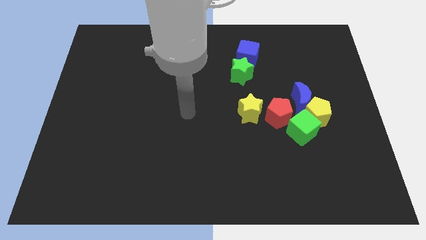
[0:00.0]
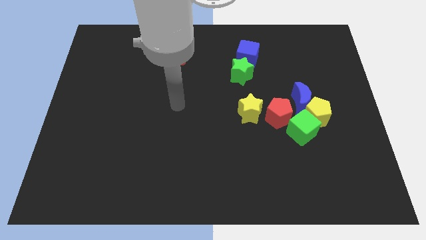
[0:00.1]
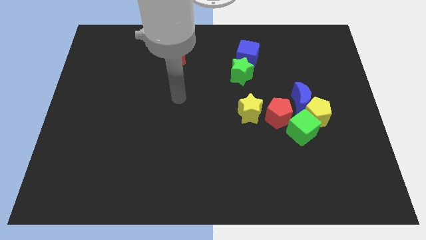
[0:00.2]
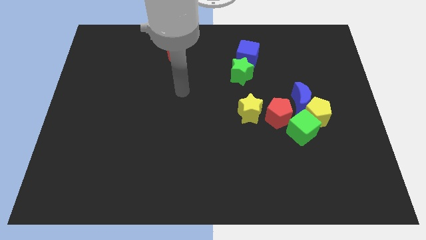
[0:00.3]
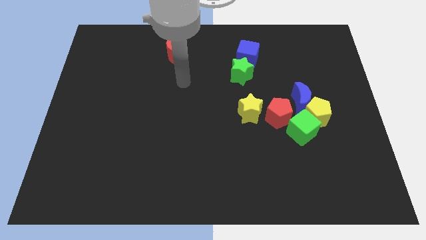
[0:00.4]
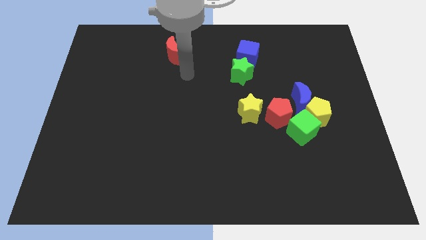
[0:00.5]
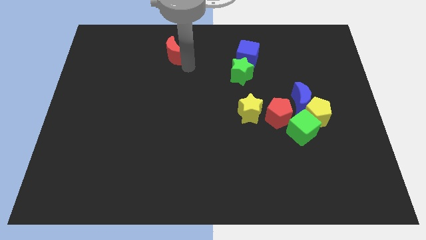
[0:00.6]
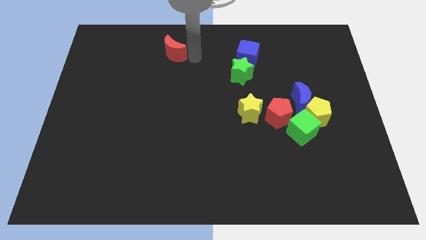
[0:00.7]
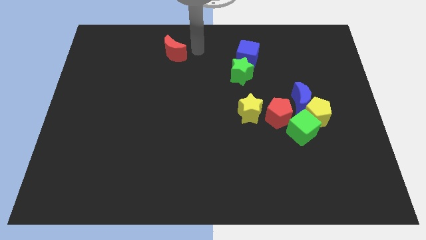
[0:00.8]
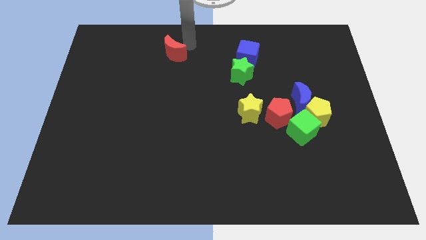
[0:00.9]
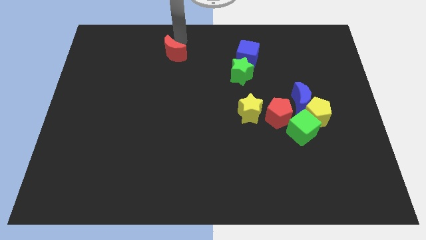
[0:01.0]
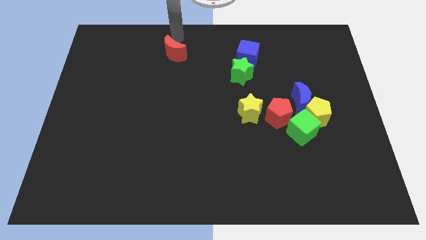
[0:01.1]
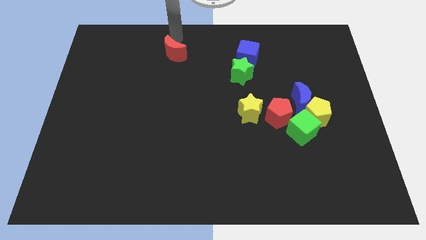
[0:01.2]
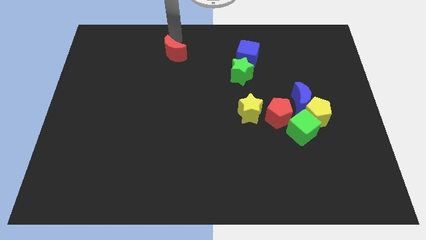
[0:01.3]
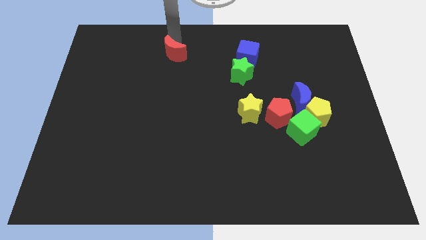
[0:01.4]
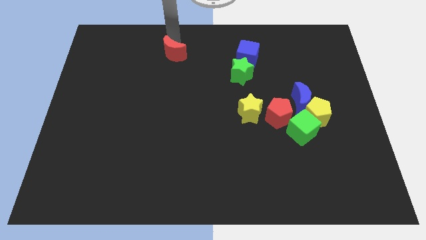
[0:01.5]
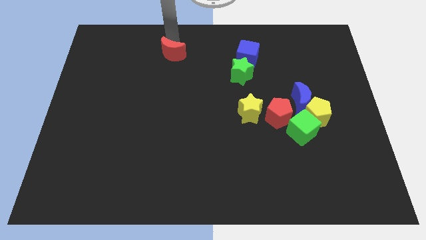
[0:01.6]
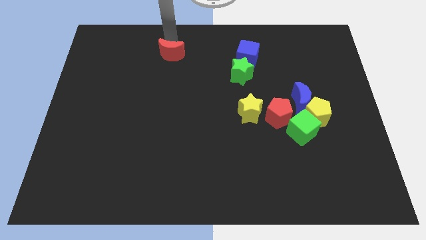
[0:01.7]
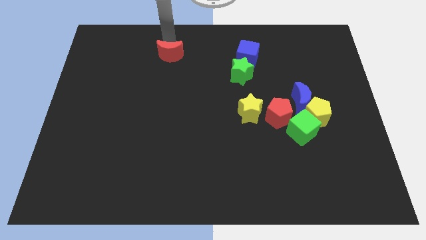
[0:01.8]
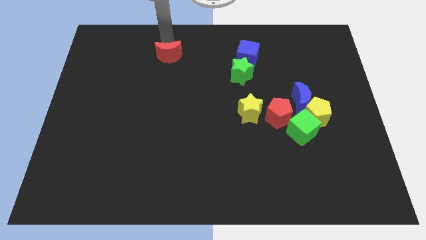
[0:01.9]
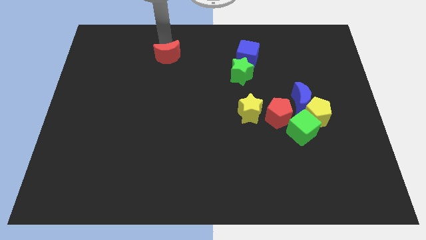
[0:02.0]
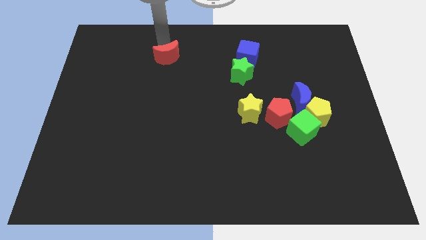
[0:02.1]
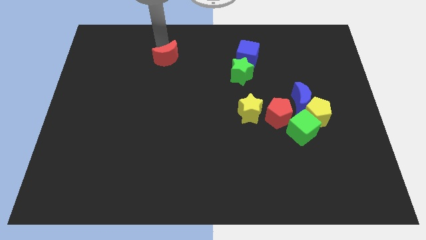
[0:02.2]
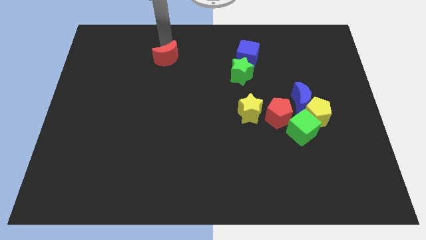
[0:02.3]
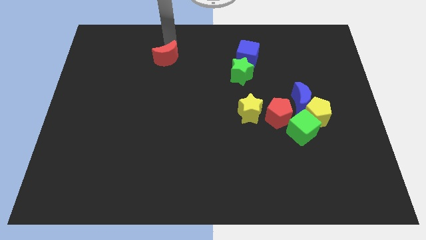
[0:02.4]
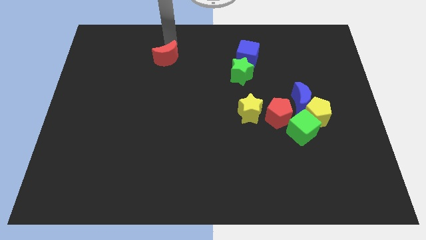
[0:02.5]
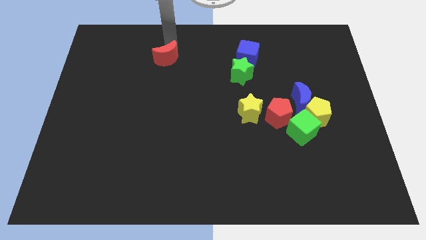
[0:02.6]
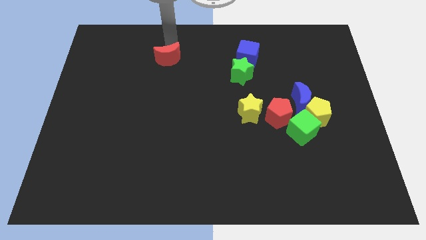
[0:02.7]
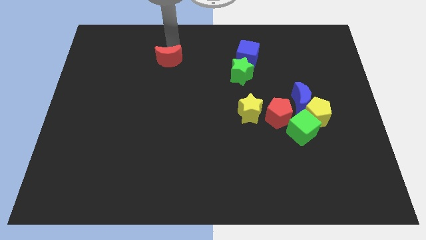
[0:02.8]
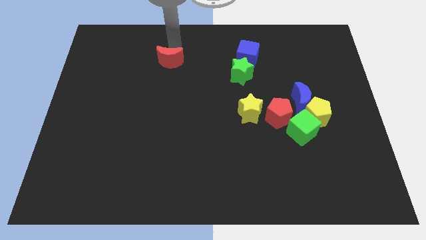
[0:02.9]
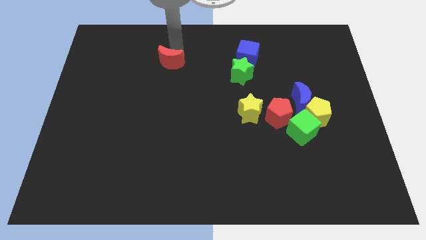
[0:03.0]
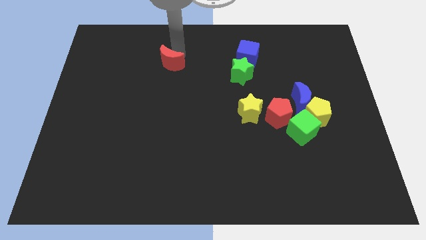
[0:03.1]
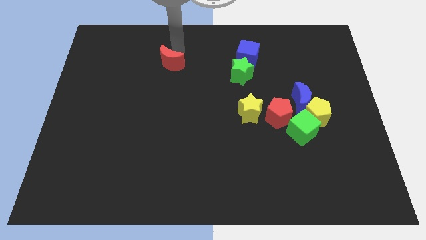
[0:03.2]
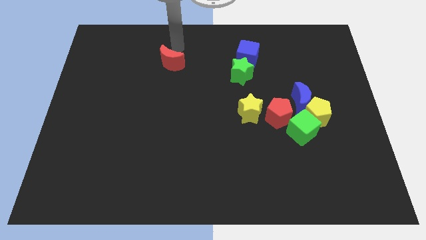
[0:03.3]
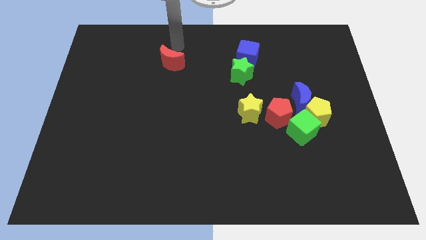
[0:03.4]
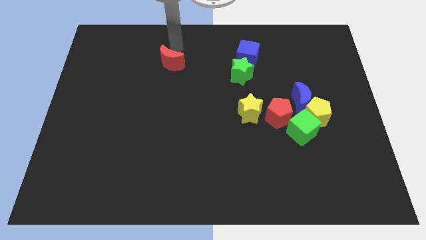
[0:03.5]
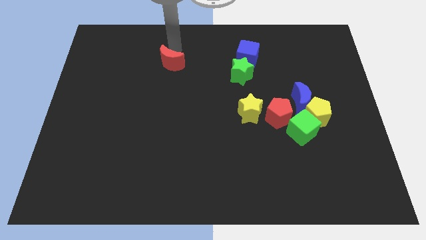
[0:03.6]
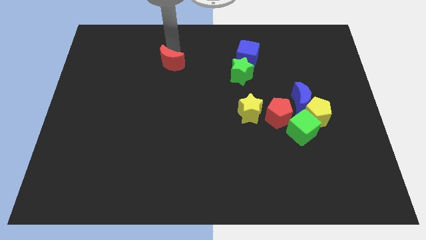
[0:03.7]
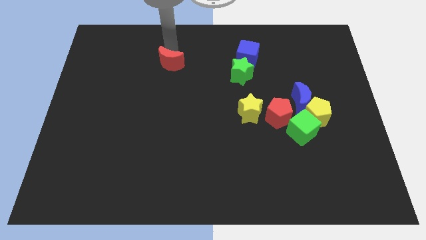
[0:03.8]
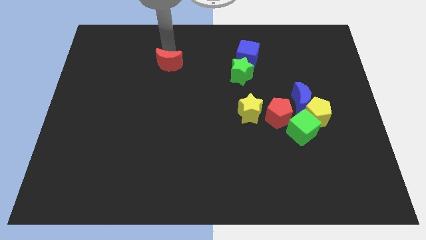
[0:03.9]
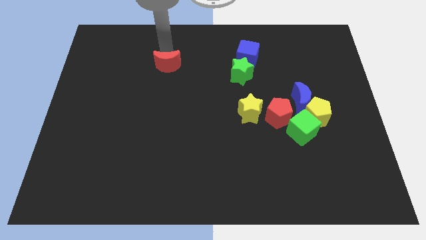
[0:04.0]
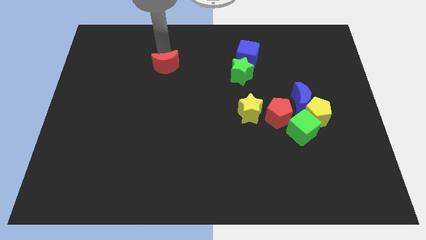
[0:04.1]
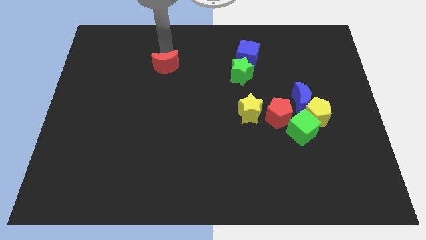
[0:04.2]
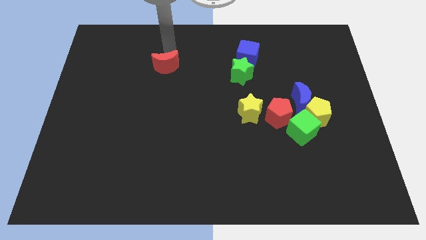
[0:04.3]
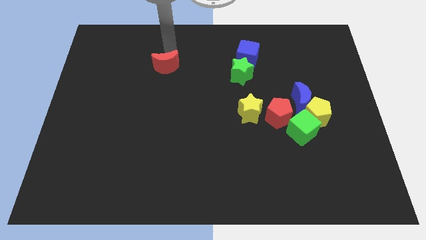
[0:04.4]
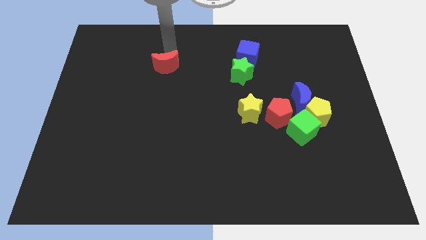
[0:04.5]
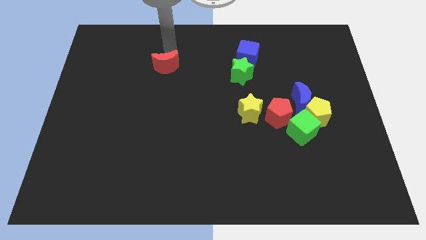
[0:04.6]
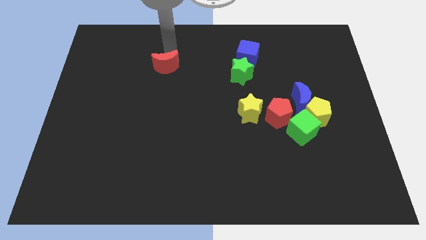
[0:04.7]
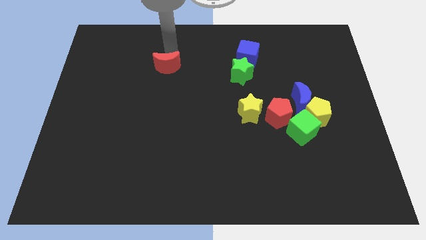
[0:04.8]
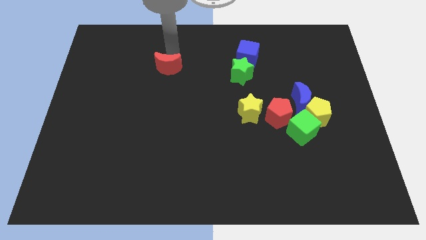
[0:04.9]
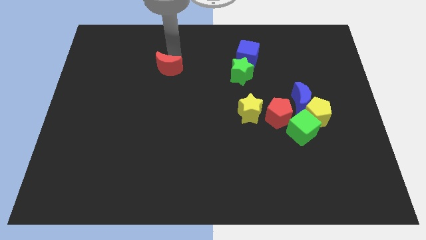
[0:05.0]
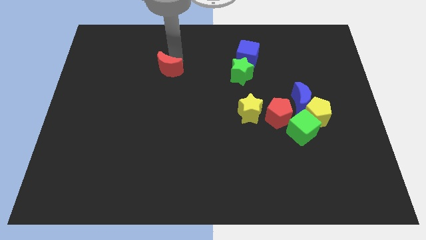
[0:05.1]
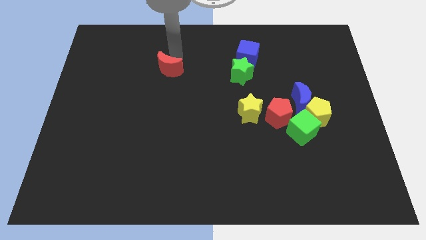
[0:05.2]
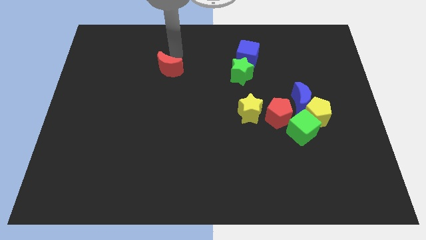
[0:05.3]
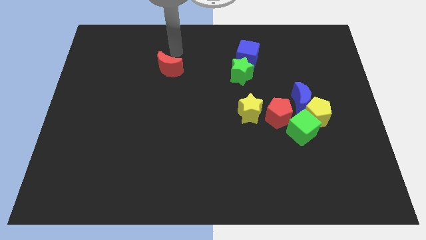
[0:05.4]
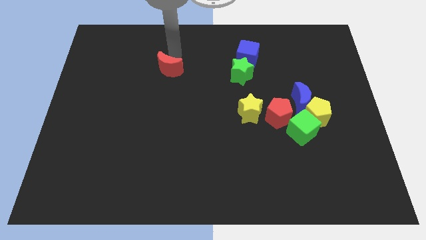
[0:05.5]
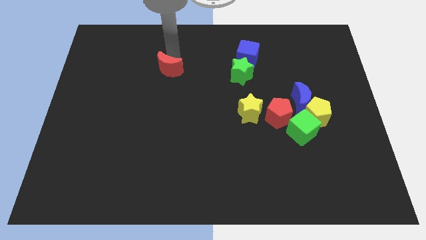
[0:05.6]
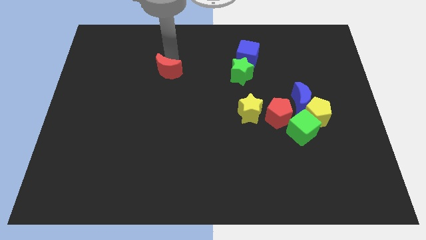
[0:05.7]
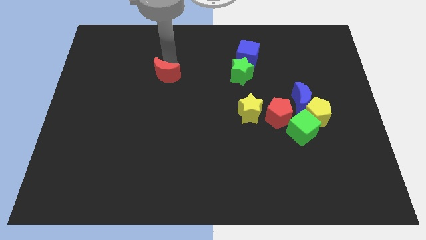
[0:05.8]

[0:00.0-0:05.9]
slide the red moon downwards slightly

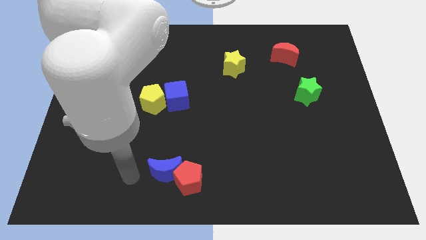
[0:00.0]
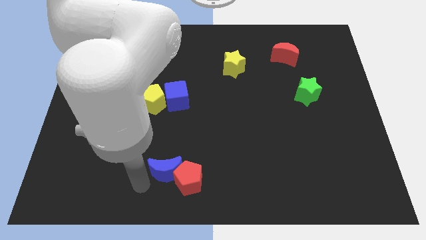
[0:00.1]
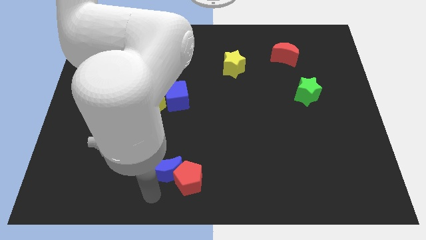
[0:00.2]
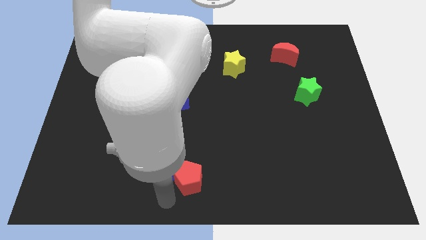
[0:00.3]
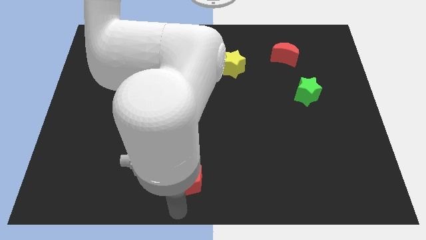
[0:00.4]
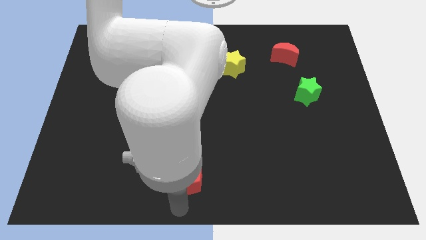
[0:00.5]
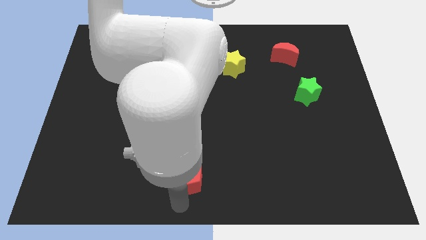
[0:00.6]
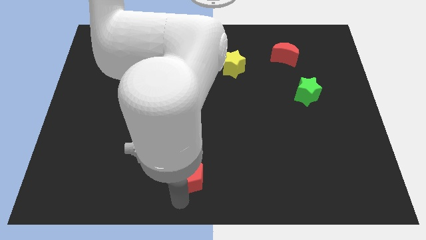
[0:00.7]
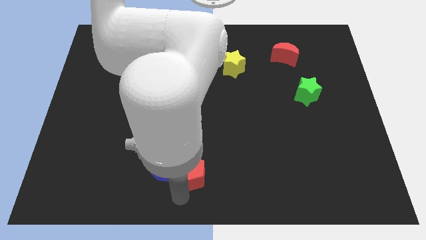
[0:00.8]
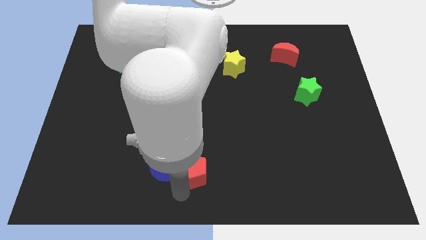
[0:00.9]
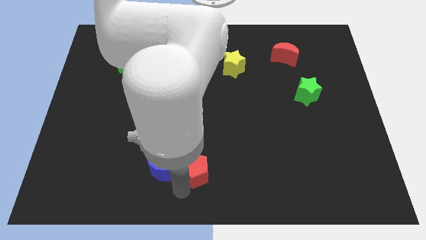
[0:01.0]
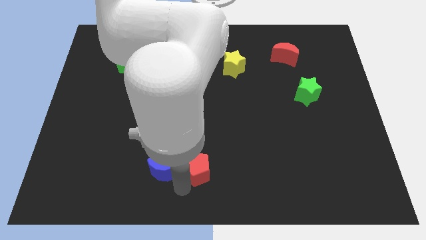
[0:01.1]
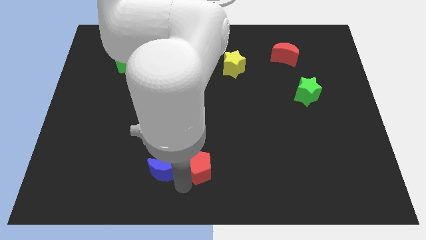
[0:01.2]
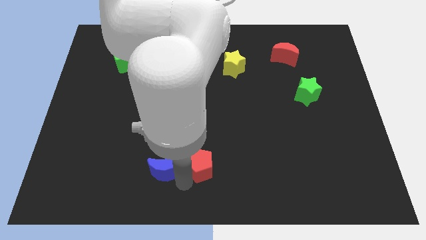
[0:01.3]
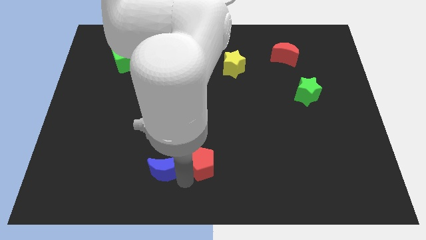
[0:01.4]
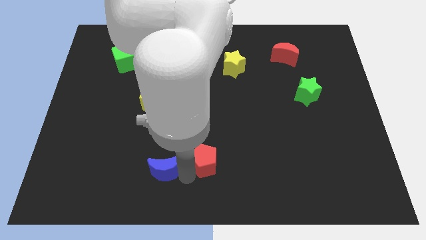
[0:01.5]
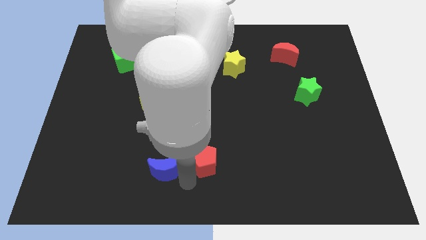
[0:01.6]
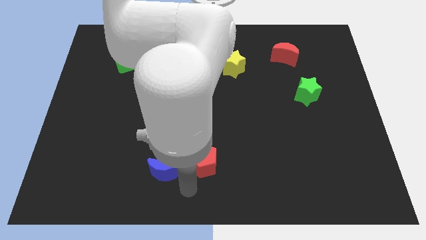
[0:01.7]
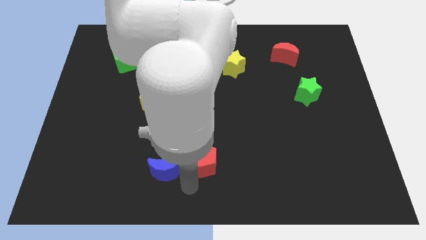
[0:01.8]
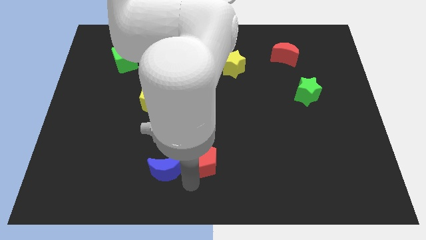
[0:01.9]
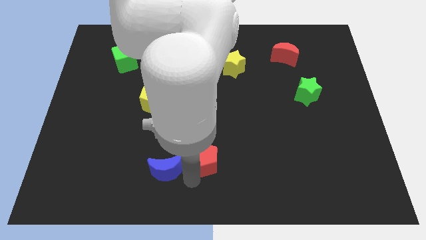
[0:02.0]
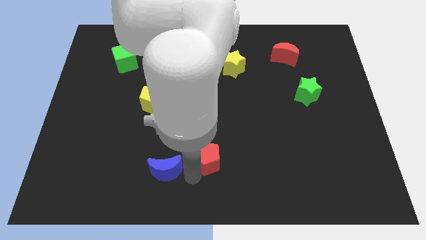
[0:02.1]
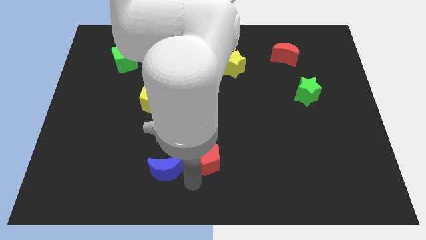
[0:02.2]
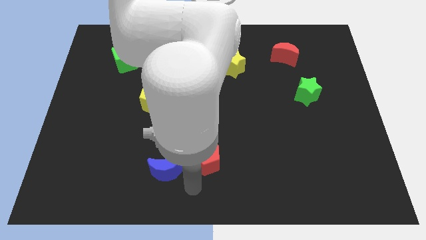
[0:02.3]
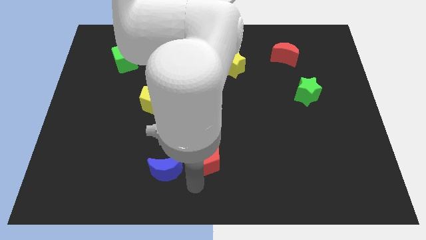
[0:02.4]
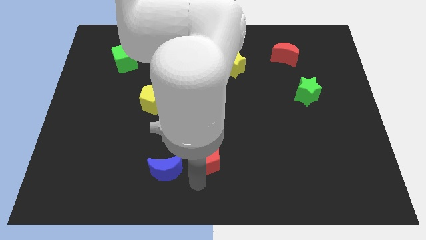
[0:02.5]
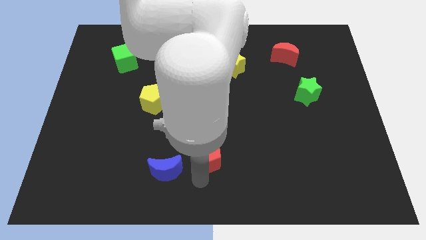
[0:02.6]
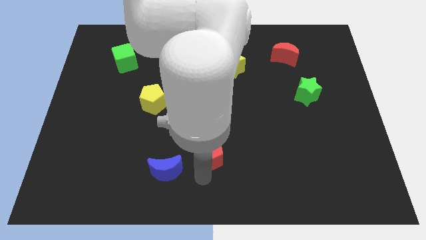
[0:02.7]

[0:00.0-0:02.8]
move the red pentagon a bit diagonally up and right
